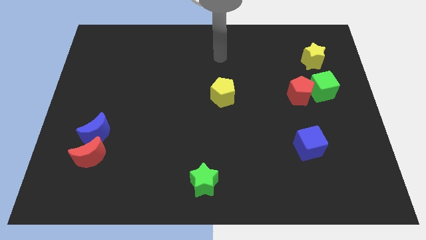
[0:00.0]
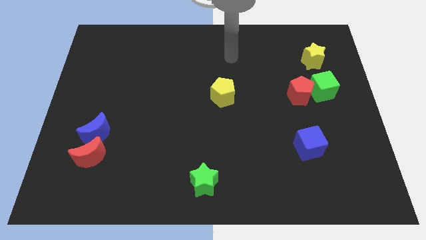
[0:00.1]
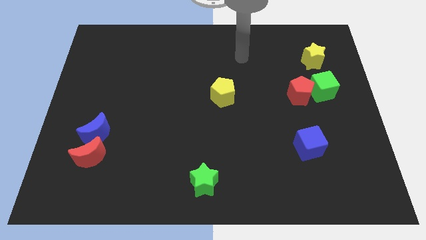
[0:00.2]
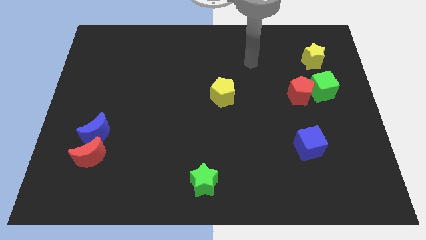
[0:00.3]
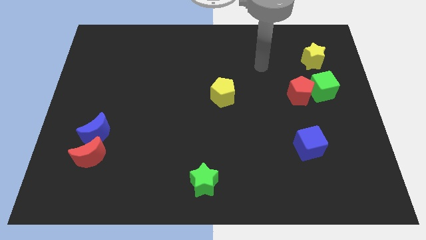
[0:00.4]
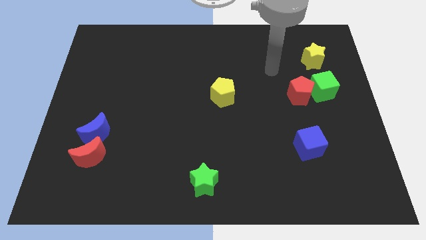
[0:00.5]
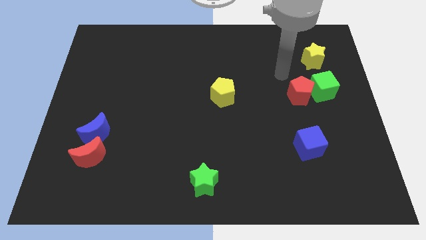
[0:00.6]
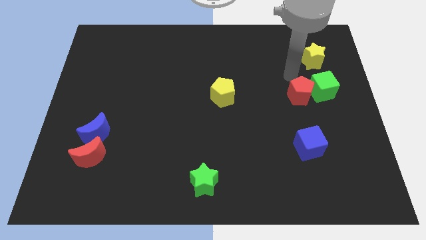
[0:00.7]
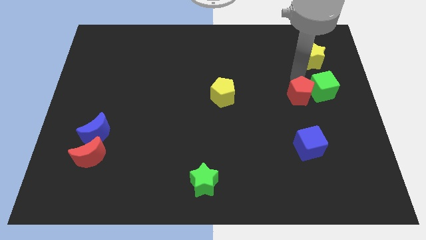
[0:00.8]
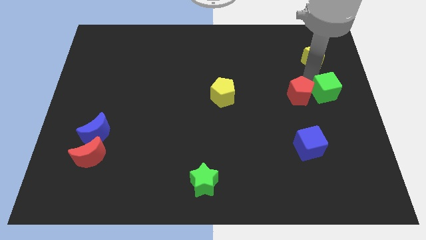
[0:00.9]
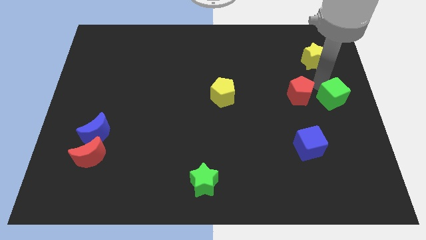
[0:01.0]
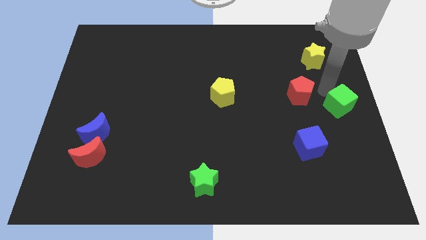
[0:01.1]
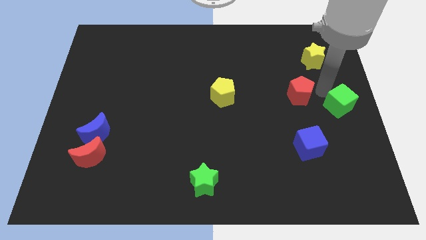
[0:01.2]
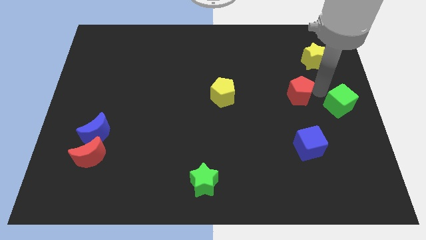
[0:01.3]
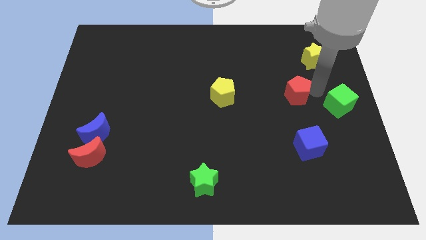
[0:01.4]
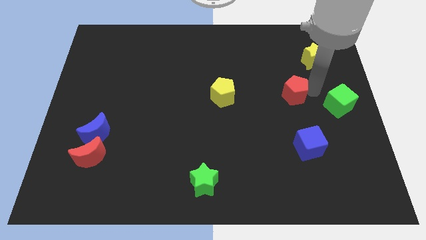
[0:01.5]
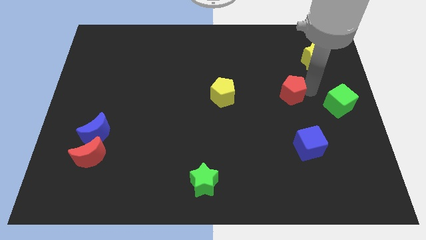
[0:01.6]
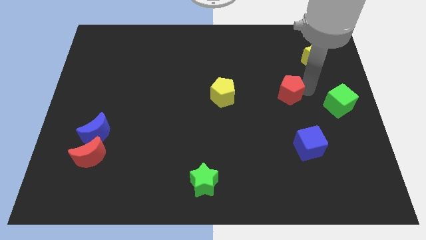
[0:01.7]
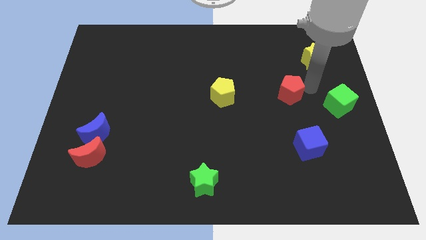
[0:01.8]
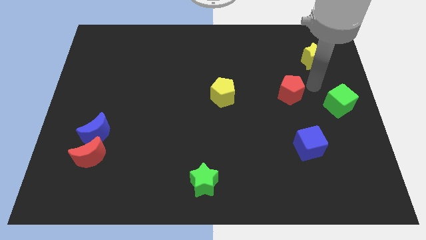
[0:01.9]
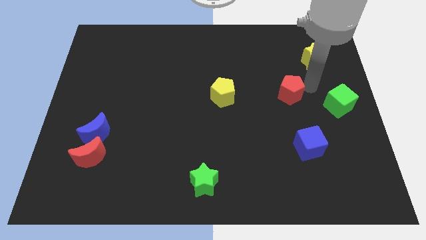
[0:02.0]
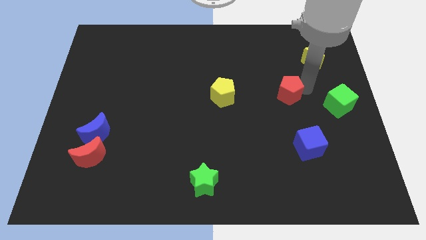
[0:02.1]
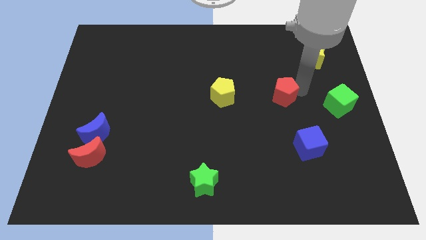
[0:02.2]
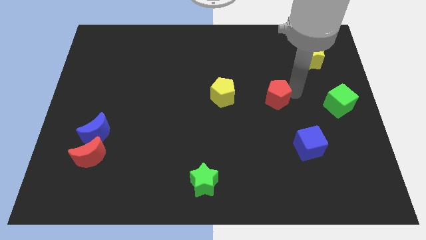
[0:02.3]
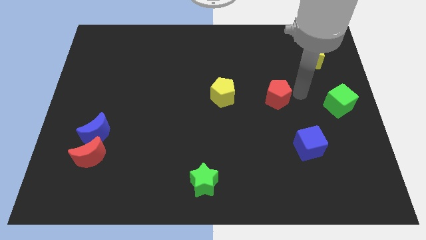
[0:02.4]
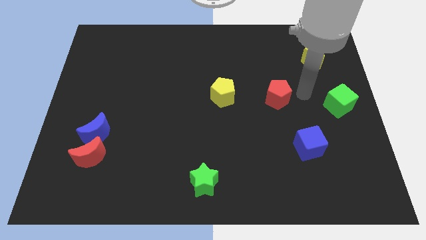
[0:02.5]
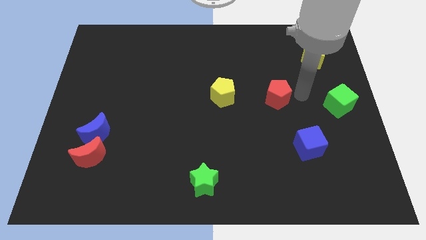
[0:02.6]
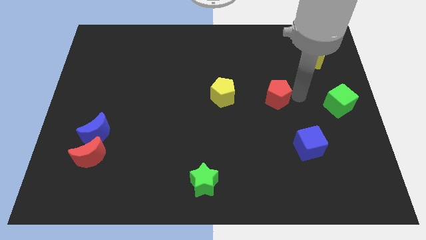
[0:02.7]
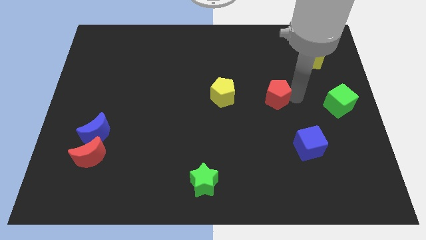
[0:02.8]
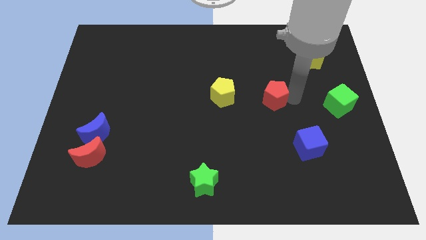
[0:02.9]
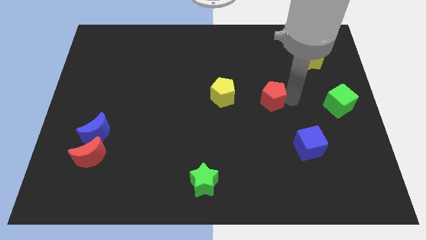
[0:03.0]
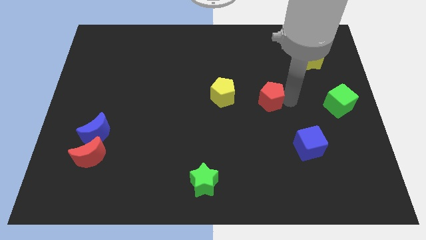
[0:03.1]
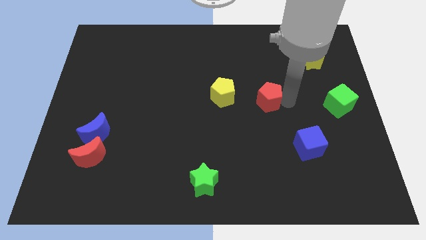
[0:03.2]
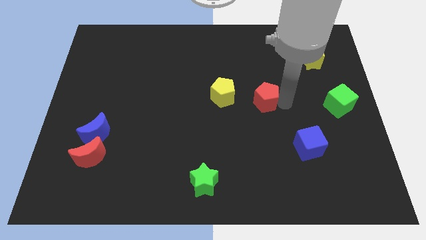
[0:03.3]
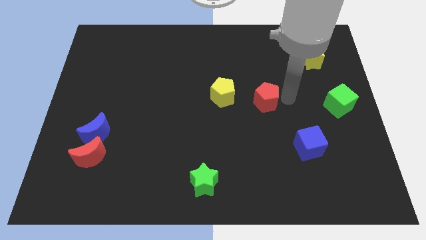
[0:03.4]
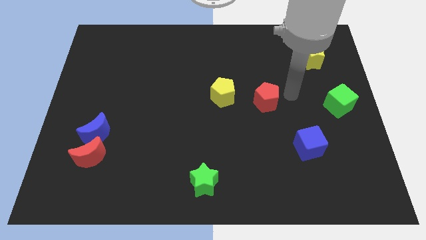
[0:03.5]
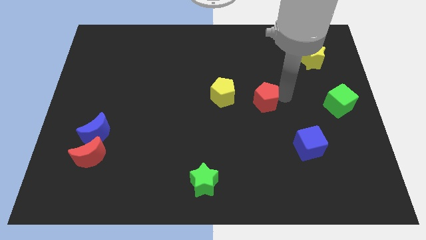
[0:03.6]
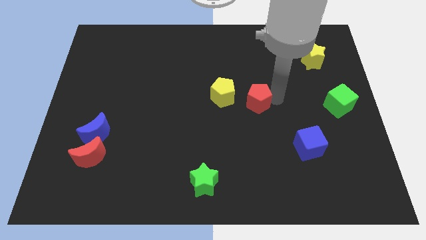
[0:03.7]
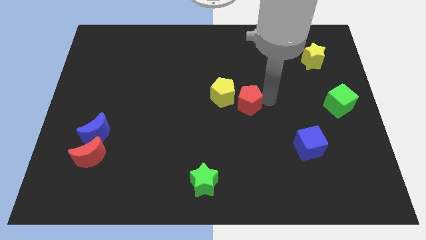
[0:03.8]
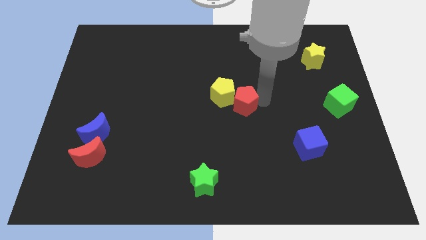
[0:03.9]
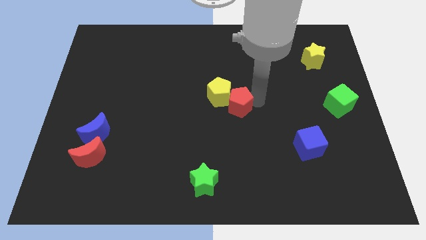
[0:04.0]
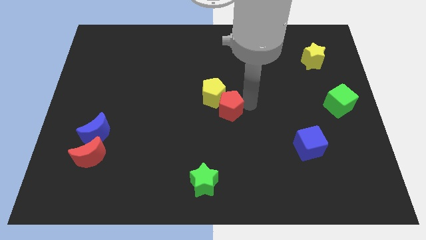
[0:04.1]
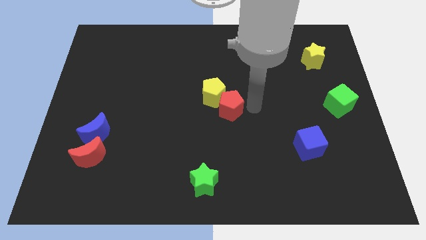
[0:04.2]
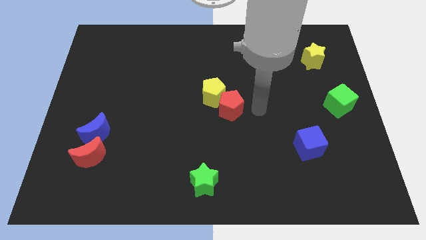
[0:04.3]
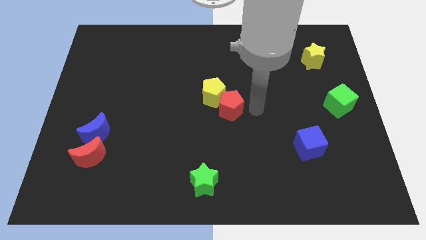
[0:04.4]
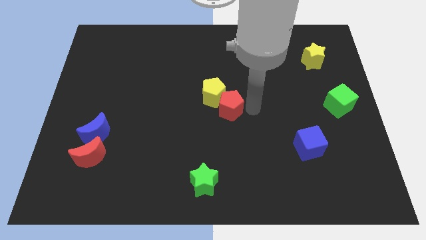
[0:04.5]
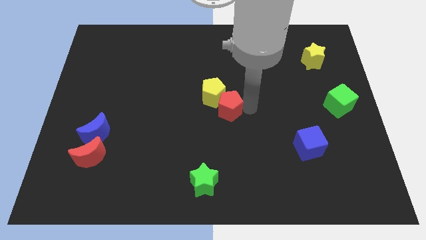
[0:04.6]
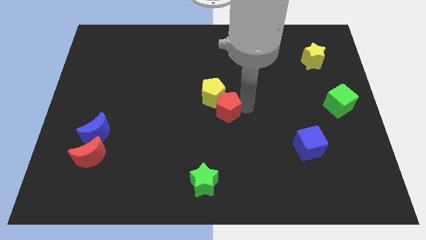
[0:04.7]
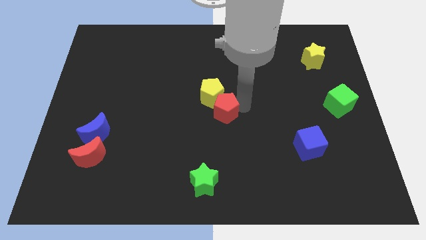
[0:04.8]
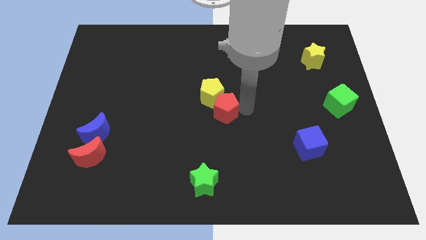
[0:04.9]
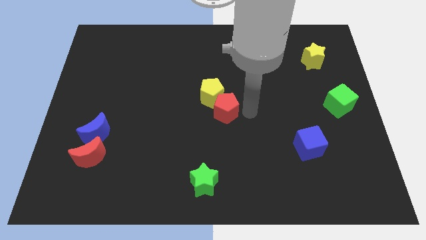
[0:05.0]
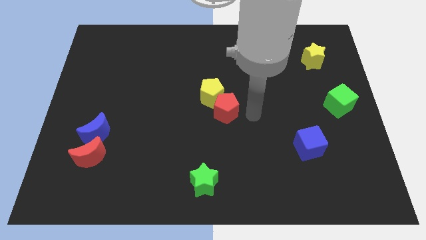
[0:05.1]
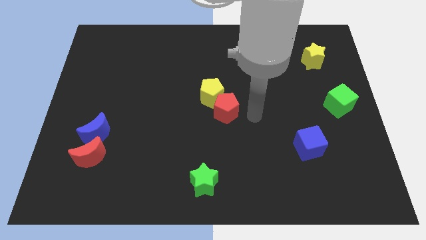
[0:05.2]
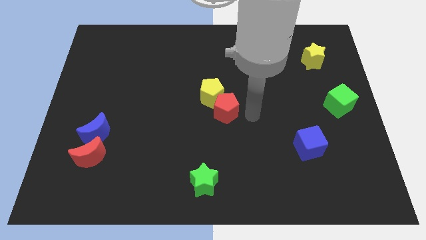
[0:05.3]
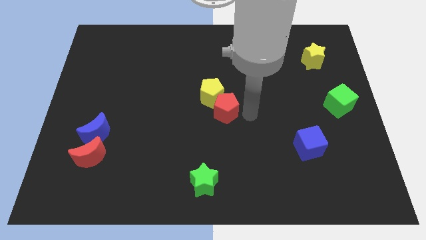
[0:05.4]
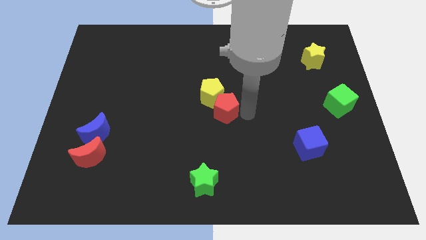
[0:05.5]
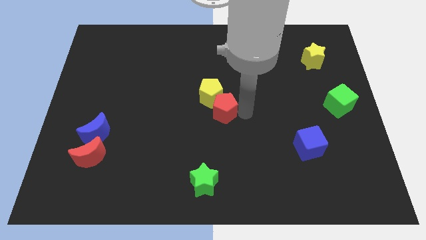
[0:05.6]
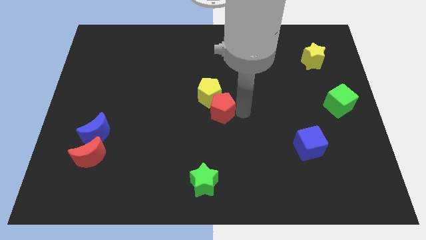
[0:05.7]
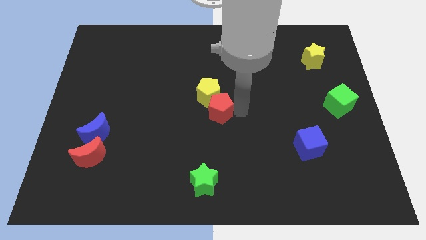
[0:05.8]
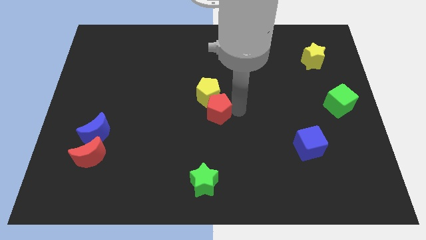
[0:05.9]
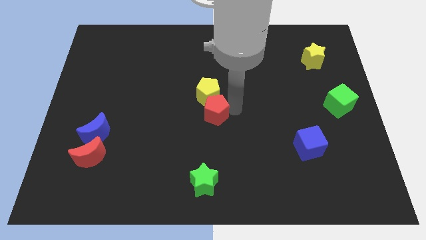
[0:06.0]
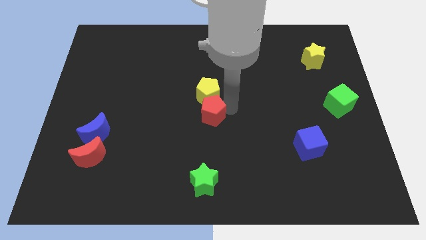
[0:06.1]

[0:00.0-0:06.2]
slide the red pentagon to the left

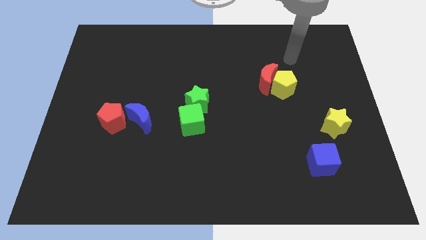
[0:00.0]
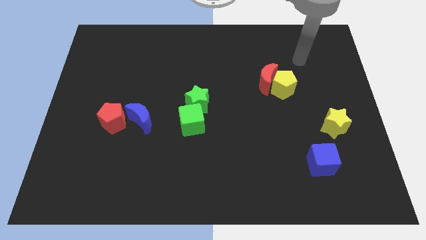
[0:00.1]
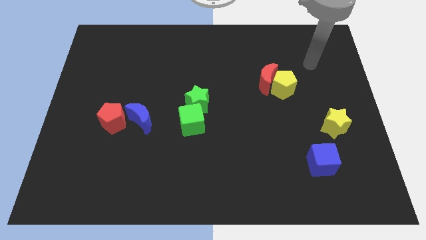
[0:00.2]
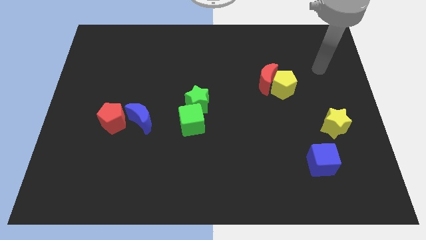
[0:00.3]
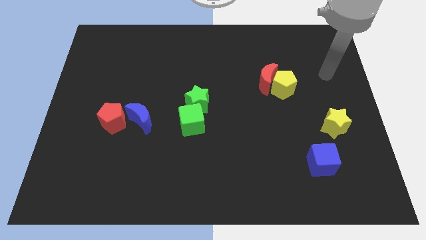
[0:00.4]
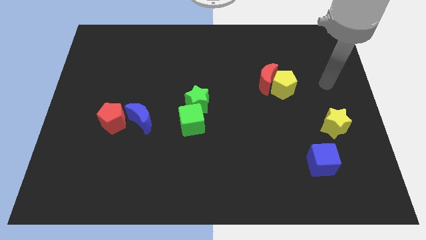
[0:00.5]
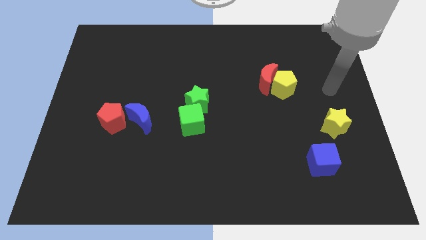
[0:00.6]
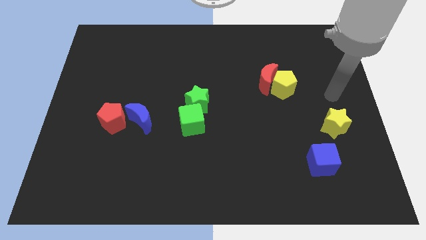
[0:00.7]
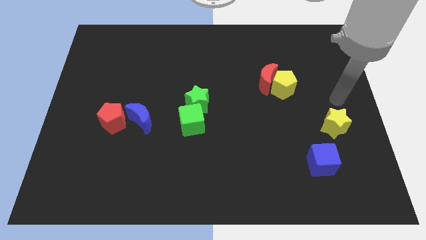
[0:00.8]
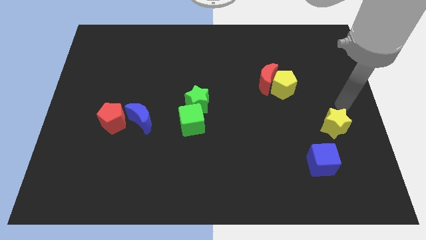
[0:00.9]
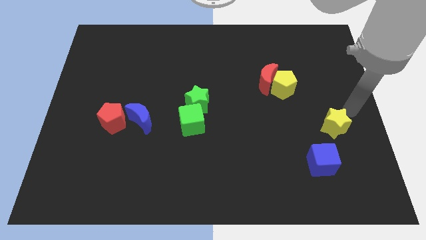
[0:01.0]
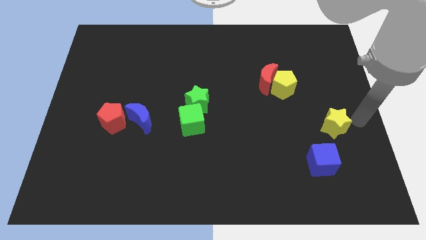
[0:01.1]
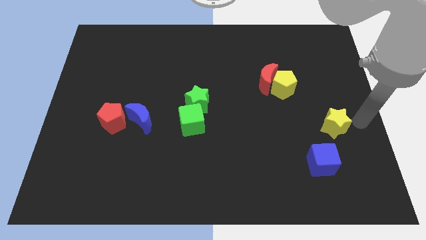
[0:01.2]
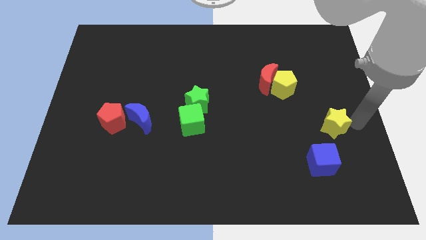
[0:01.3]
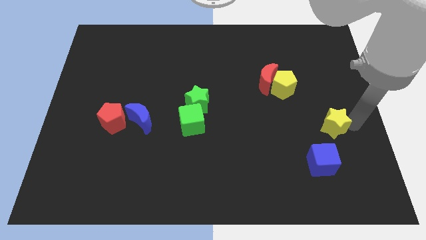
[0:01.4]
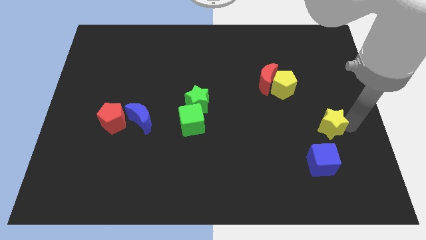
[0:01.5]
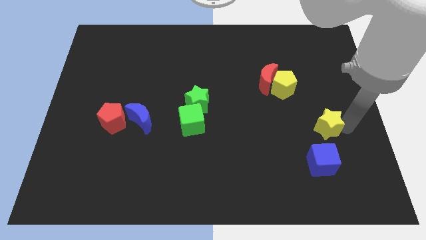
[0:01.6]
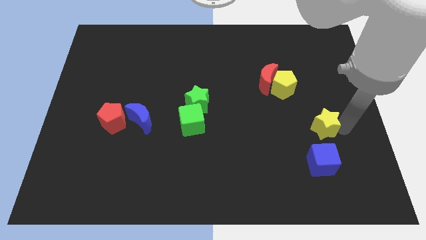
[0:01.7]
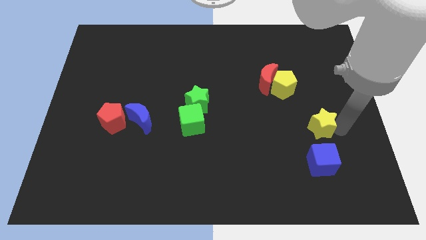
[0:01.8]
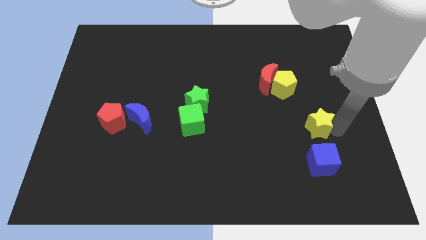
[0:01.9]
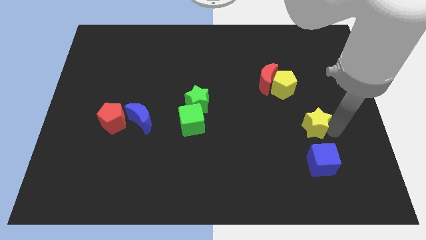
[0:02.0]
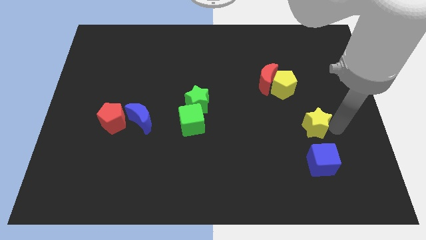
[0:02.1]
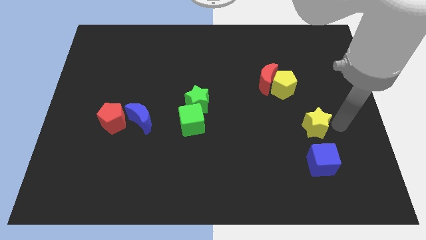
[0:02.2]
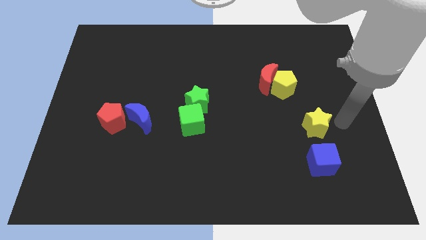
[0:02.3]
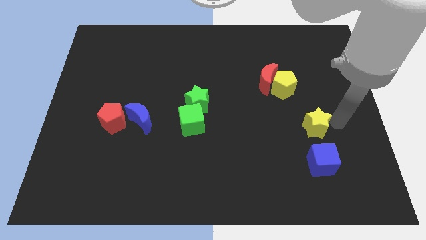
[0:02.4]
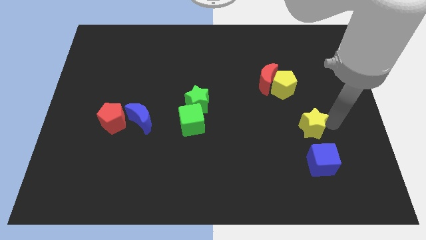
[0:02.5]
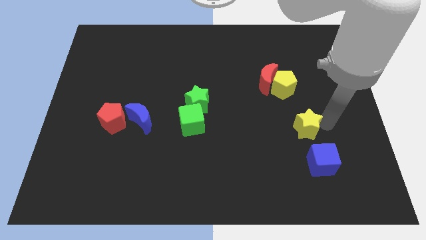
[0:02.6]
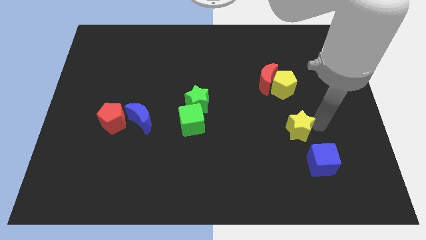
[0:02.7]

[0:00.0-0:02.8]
move the yellow star left somewhat
